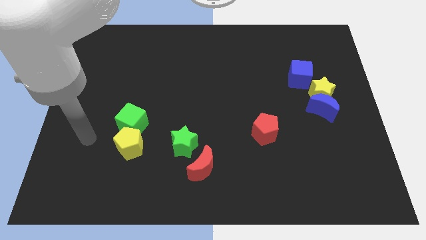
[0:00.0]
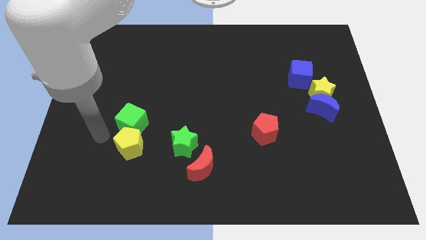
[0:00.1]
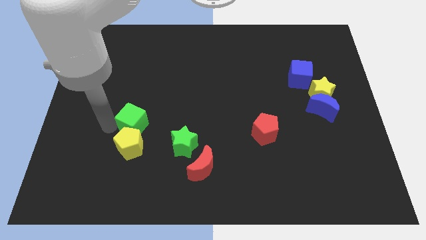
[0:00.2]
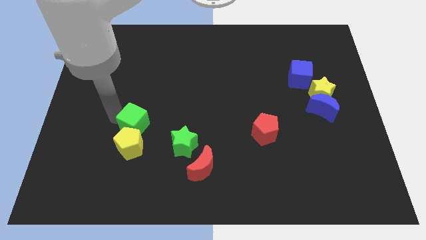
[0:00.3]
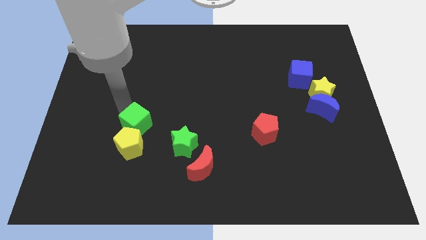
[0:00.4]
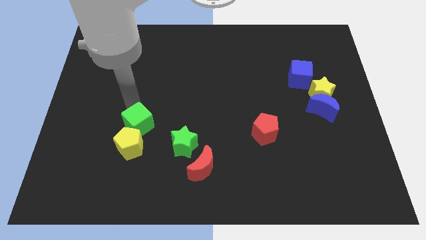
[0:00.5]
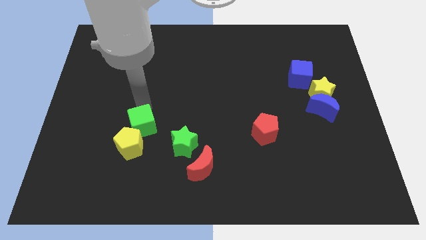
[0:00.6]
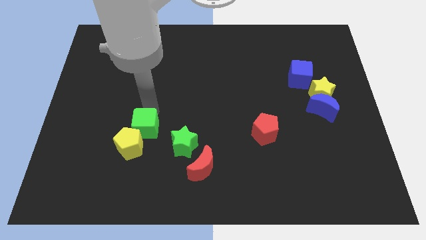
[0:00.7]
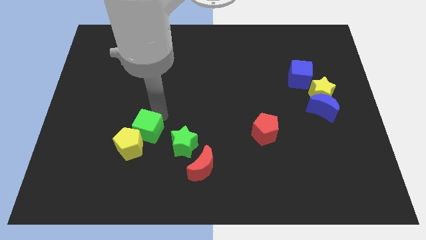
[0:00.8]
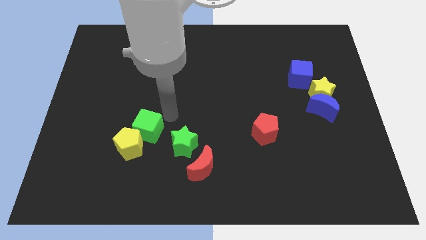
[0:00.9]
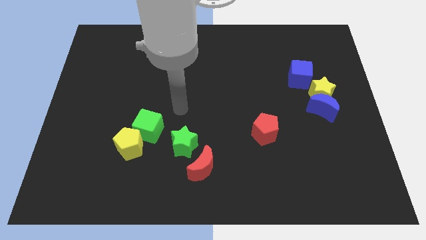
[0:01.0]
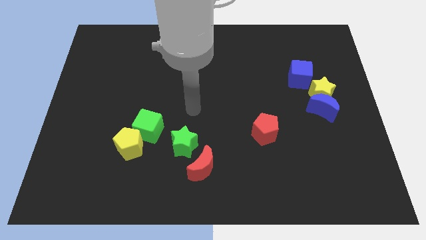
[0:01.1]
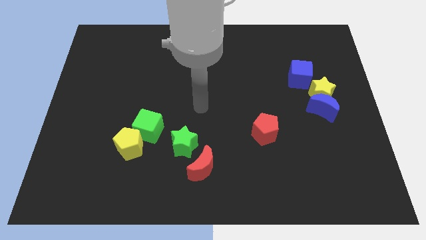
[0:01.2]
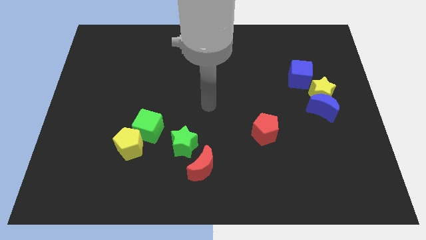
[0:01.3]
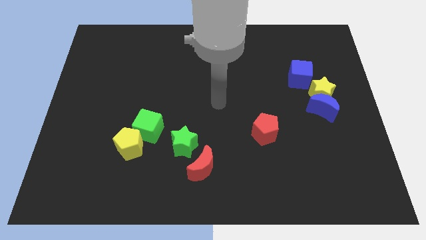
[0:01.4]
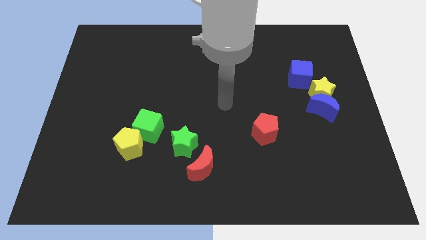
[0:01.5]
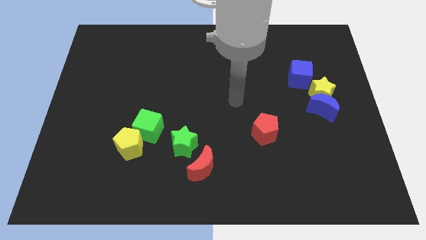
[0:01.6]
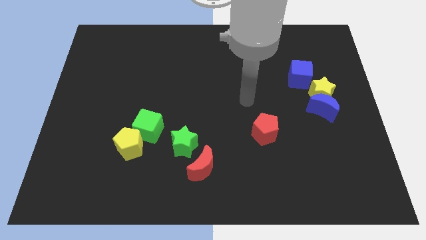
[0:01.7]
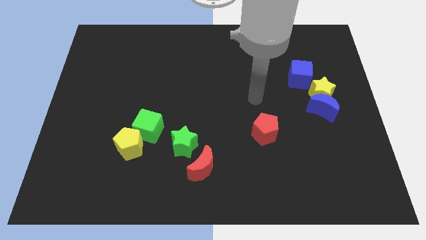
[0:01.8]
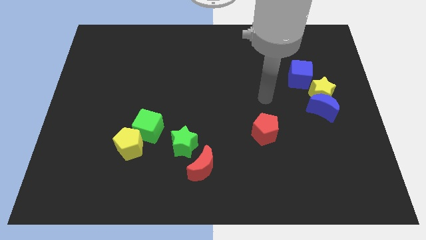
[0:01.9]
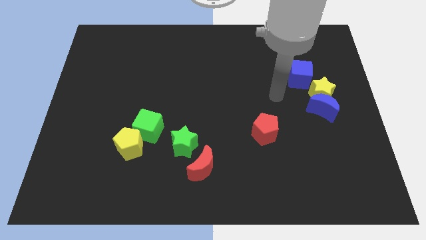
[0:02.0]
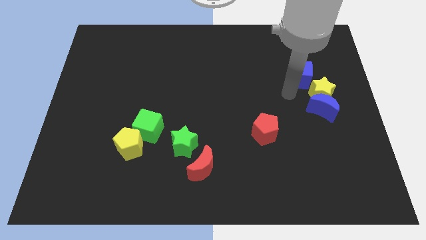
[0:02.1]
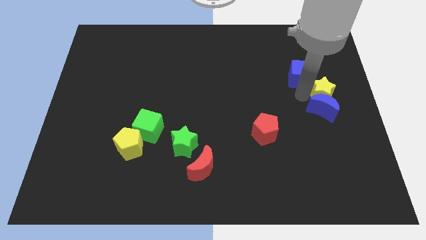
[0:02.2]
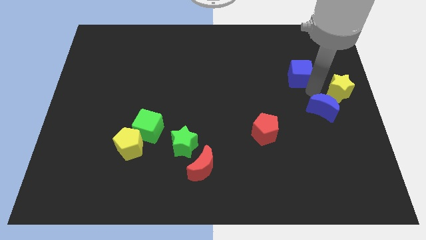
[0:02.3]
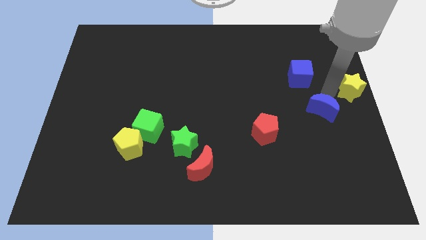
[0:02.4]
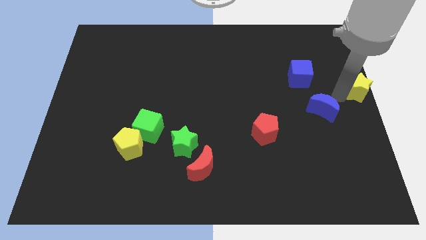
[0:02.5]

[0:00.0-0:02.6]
move the blue moon away from the yellow star

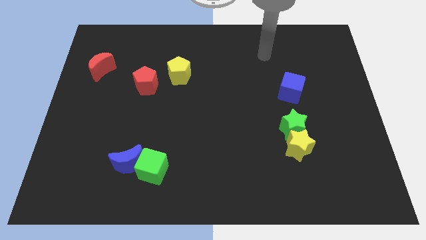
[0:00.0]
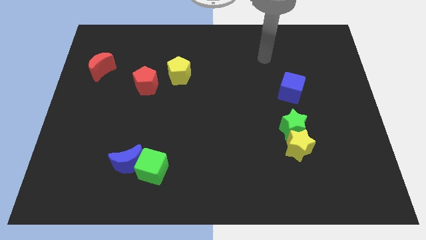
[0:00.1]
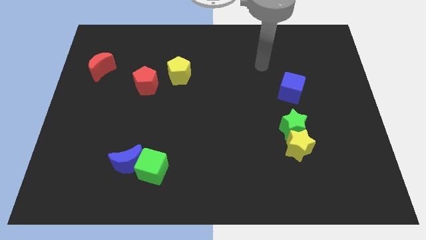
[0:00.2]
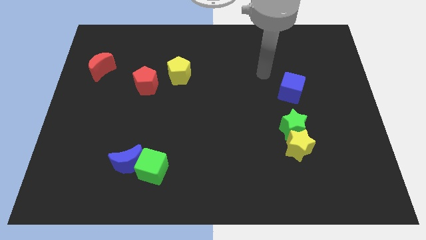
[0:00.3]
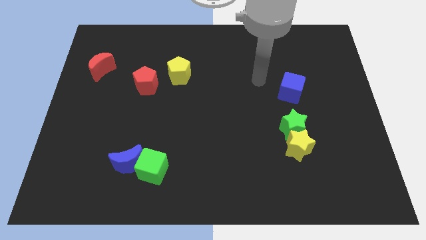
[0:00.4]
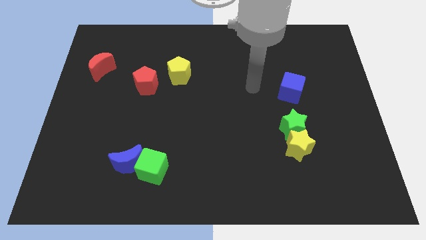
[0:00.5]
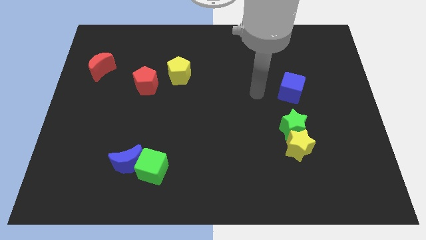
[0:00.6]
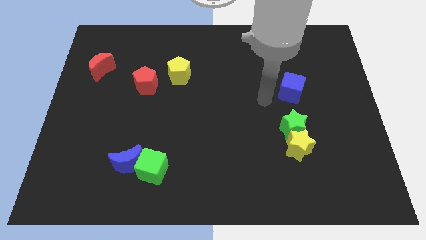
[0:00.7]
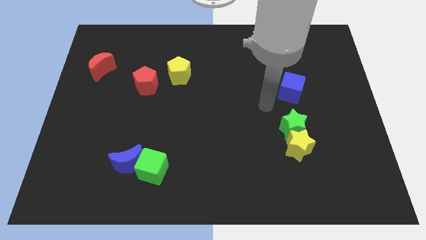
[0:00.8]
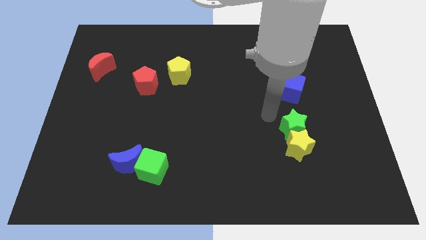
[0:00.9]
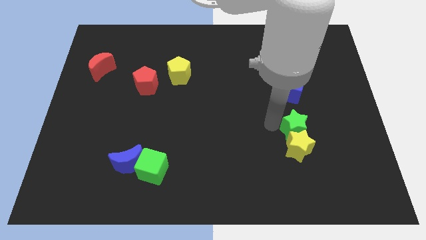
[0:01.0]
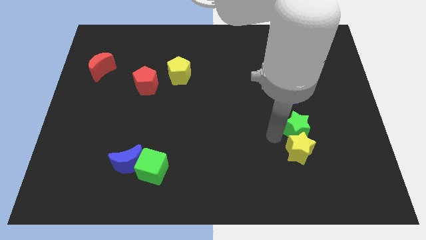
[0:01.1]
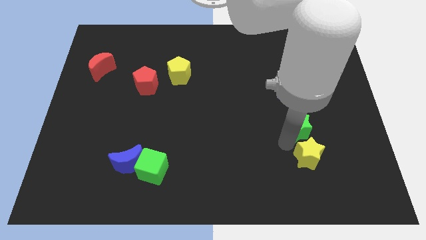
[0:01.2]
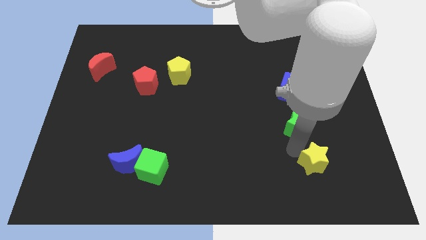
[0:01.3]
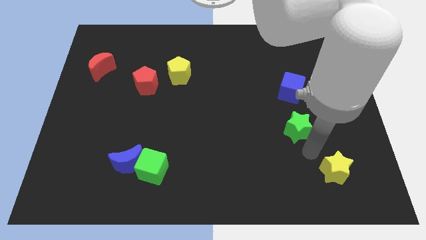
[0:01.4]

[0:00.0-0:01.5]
move the green star away from the yellow star

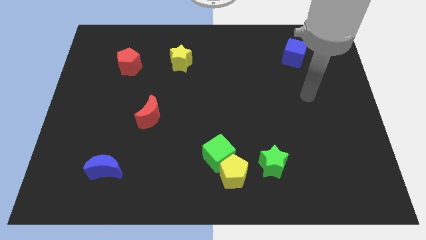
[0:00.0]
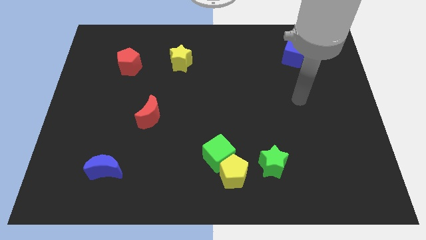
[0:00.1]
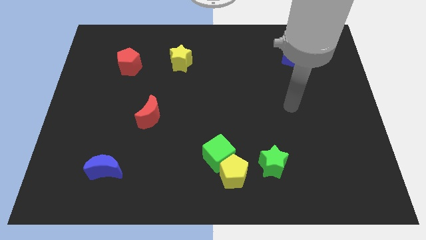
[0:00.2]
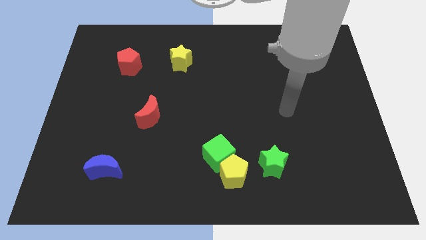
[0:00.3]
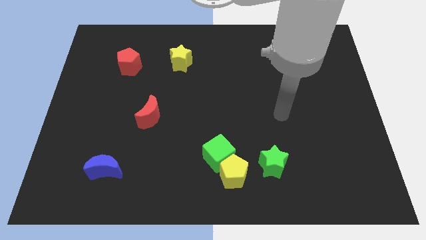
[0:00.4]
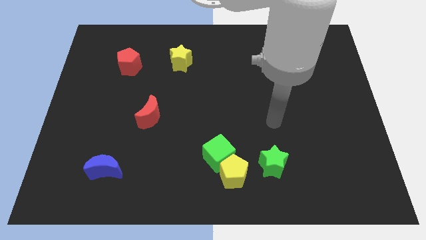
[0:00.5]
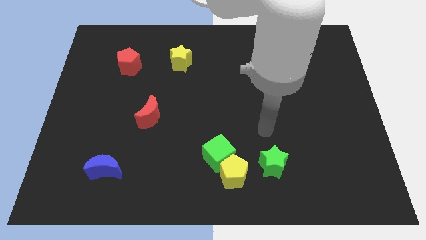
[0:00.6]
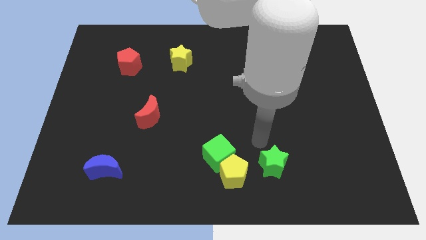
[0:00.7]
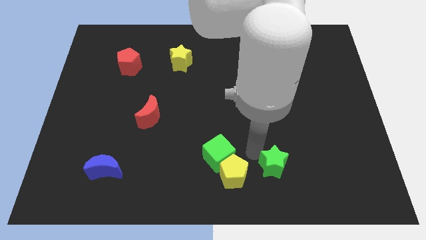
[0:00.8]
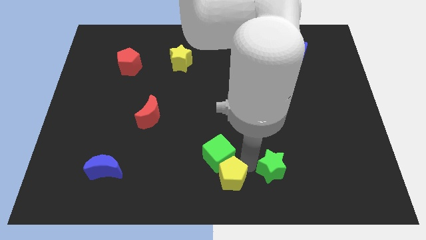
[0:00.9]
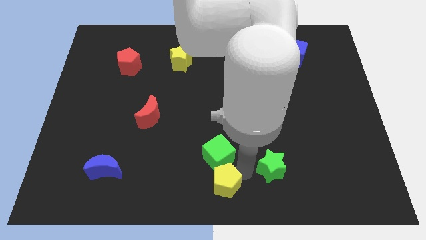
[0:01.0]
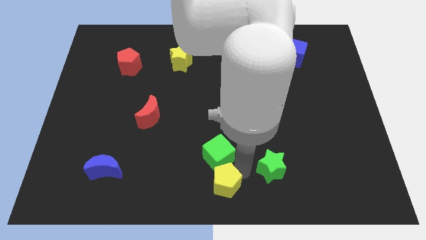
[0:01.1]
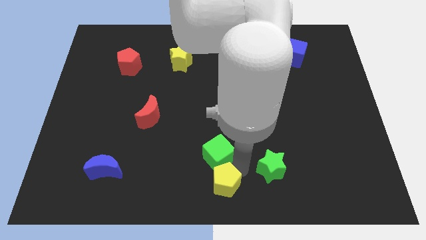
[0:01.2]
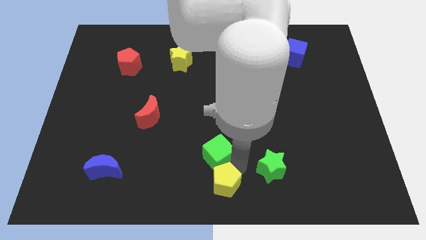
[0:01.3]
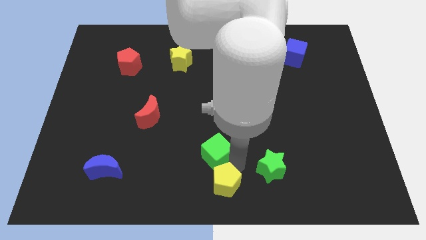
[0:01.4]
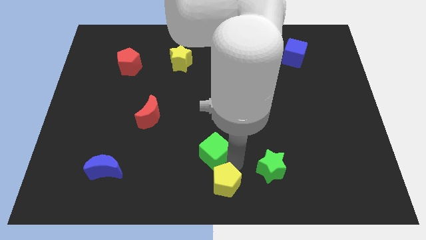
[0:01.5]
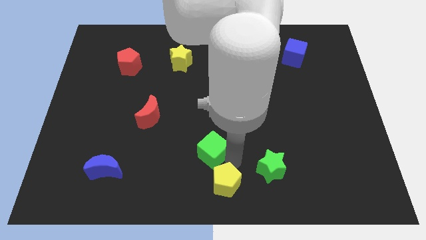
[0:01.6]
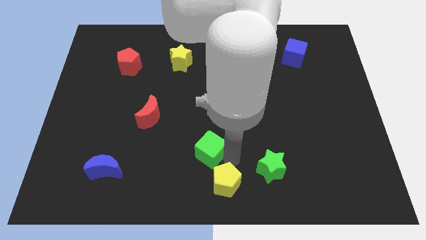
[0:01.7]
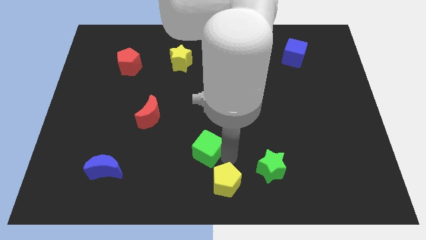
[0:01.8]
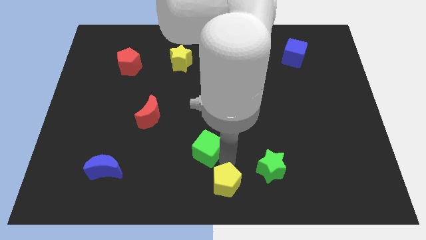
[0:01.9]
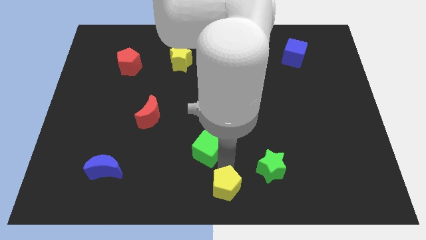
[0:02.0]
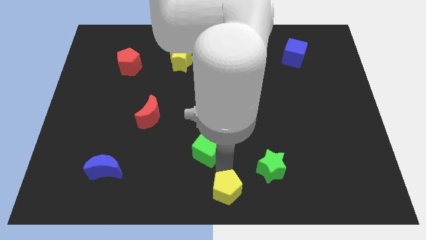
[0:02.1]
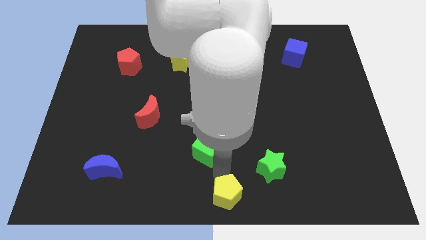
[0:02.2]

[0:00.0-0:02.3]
separate the green cube from the yellow pentagon

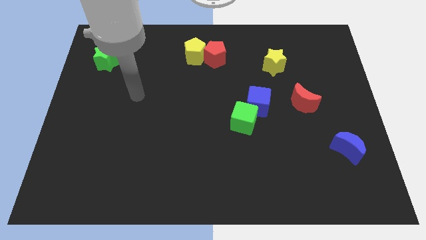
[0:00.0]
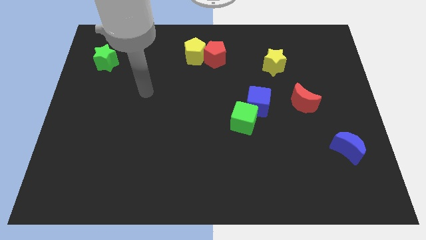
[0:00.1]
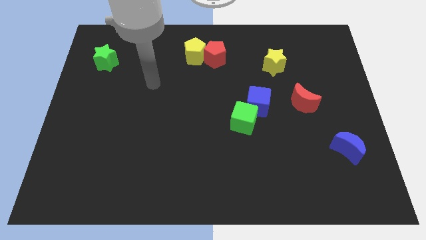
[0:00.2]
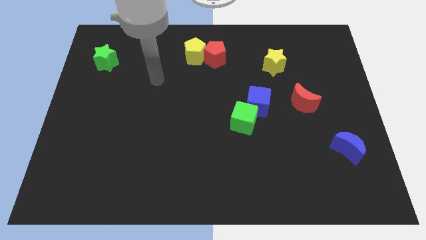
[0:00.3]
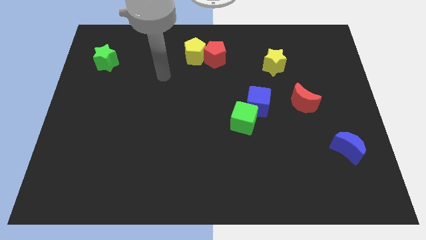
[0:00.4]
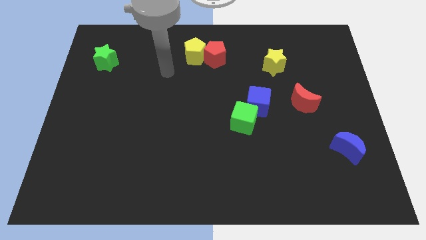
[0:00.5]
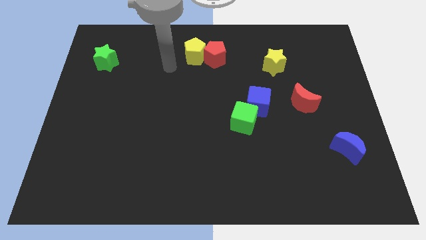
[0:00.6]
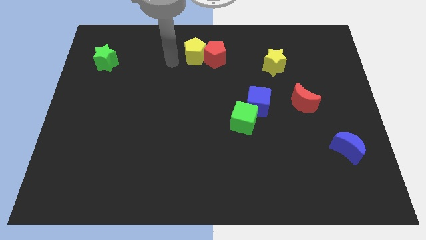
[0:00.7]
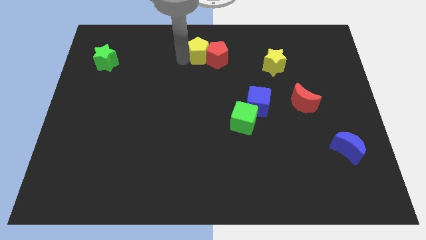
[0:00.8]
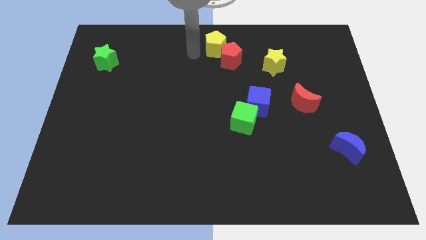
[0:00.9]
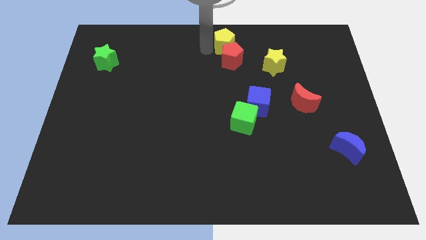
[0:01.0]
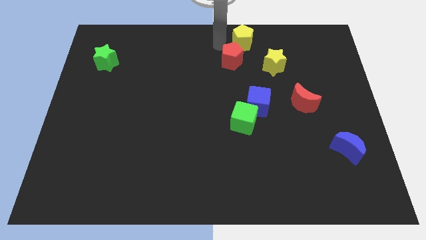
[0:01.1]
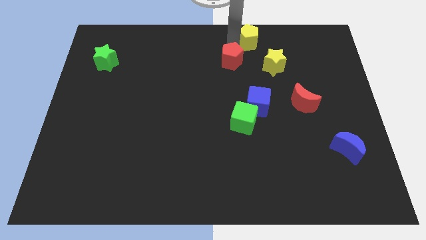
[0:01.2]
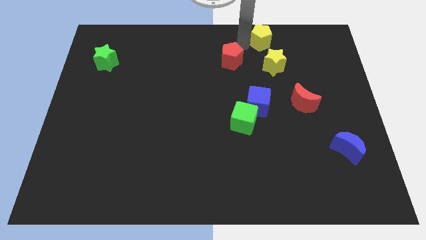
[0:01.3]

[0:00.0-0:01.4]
separate the red pentagon from the yellow pentagon

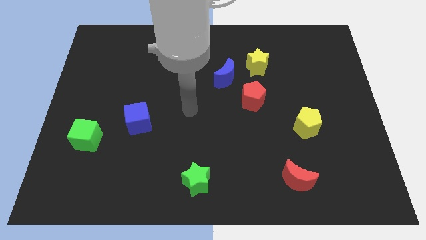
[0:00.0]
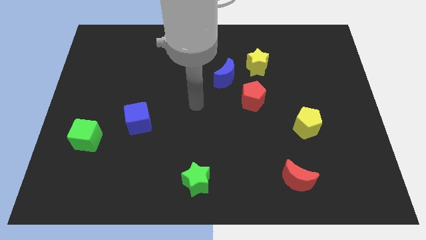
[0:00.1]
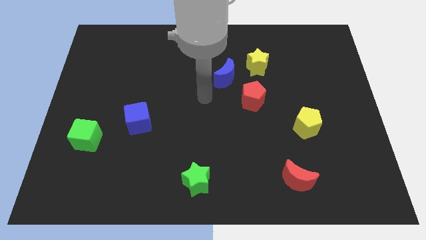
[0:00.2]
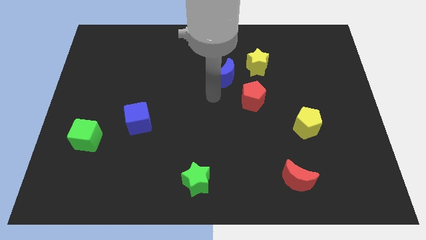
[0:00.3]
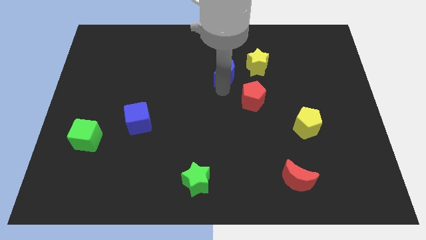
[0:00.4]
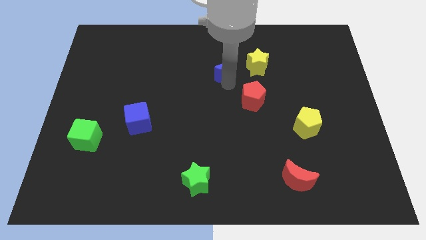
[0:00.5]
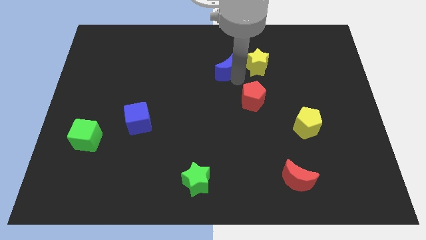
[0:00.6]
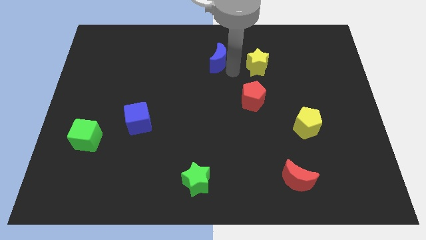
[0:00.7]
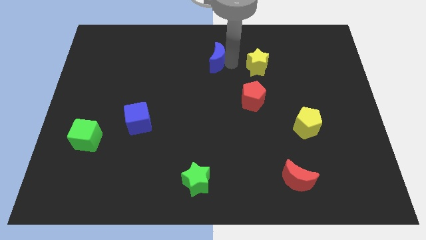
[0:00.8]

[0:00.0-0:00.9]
pull the yellow star apart from the blue moon

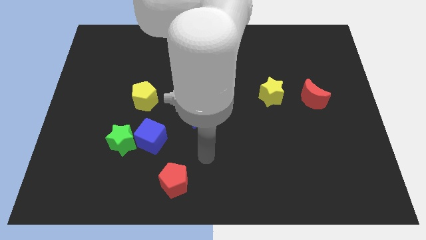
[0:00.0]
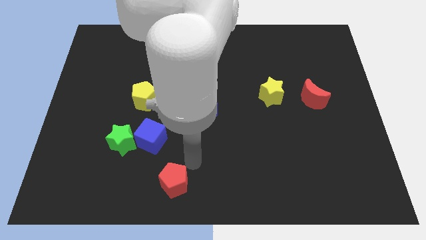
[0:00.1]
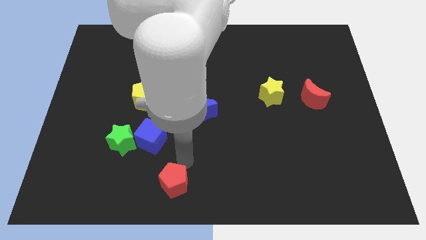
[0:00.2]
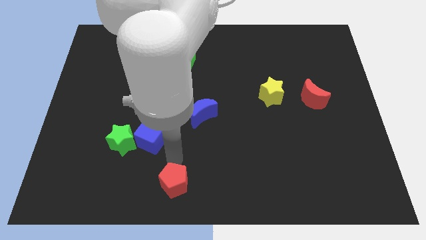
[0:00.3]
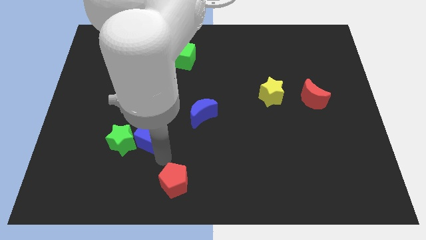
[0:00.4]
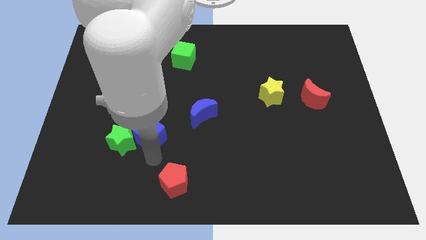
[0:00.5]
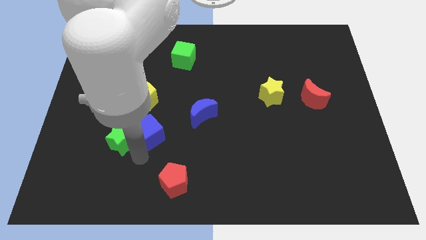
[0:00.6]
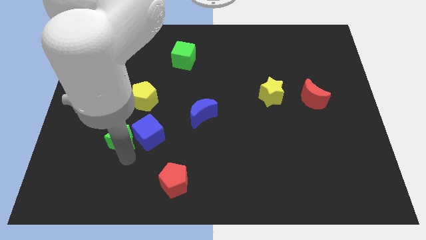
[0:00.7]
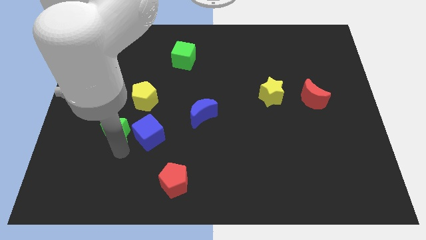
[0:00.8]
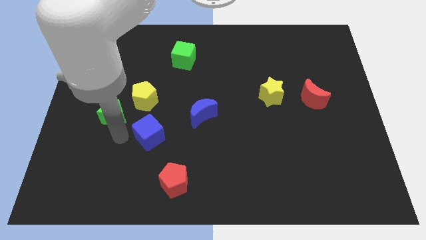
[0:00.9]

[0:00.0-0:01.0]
move the blue cube away from the green star
